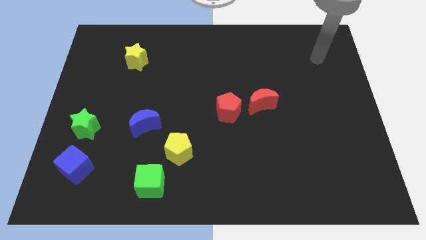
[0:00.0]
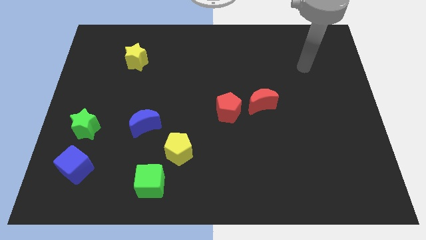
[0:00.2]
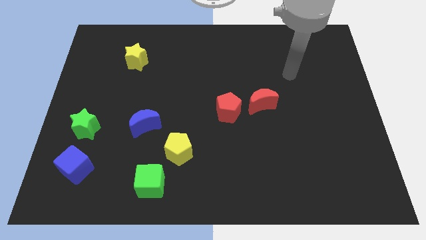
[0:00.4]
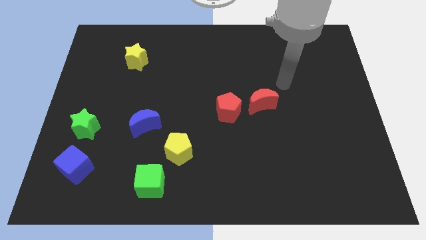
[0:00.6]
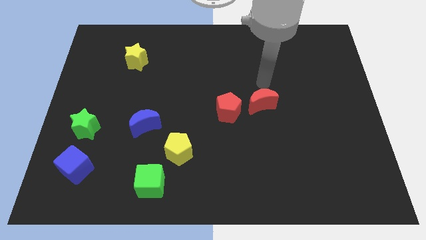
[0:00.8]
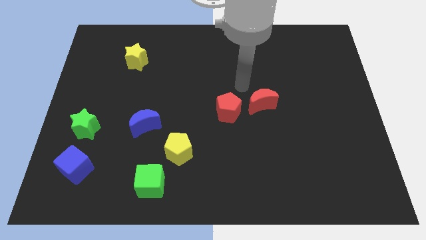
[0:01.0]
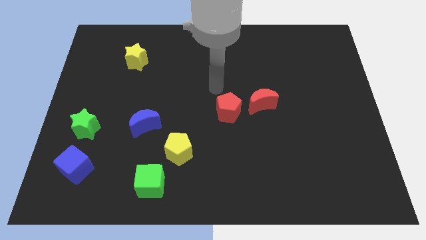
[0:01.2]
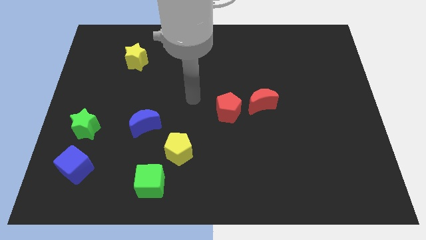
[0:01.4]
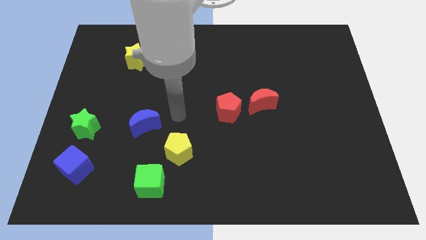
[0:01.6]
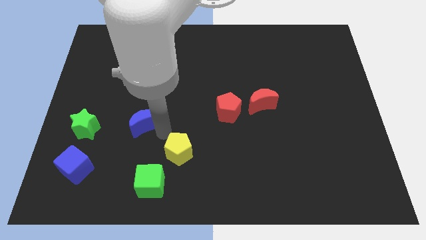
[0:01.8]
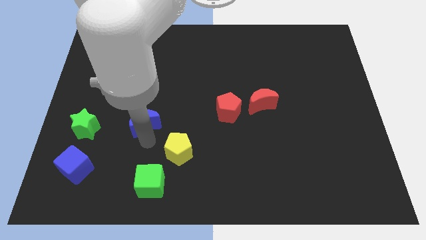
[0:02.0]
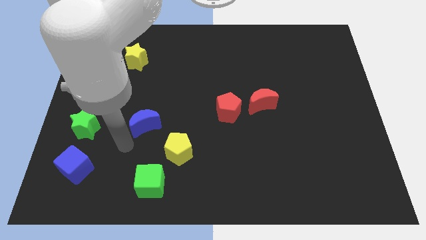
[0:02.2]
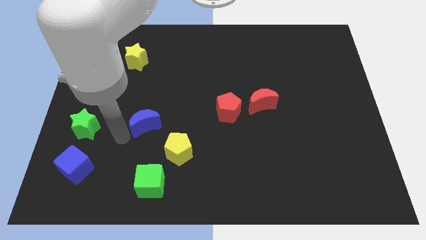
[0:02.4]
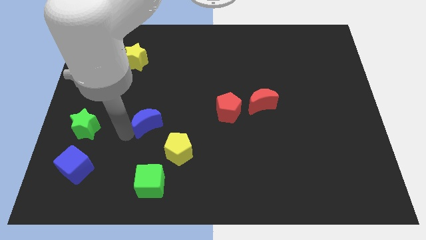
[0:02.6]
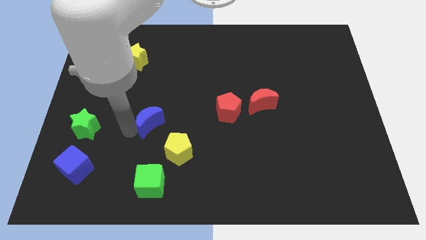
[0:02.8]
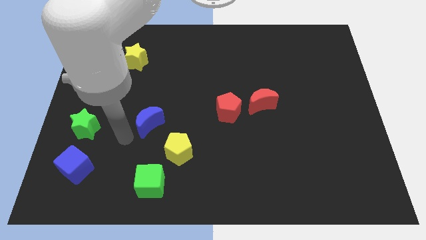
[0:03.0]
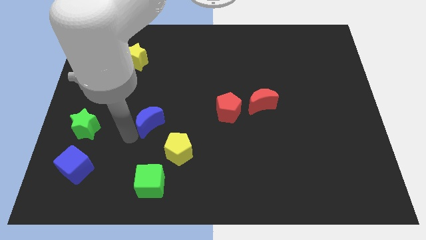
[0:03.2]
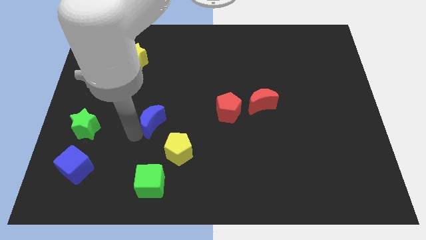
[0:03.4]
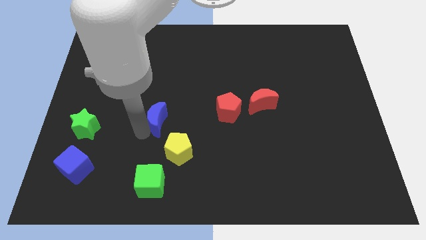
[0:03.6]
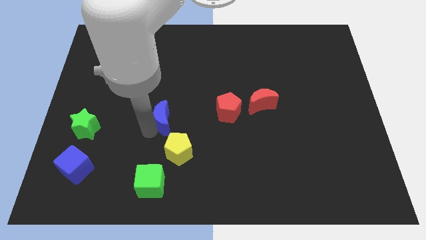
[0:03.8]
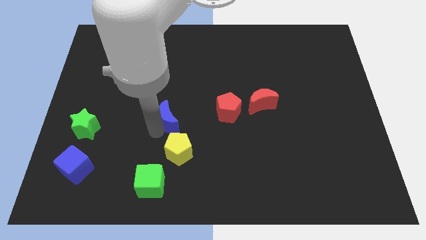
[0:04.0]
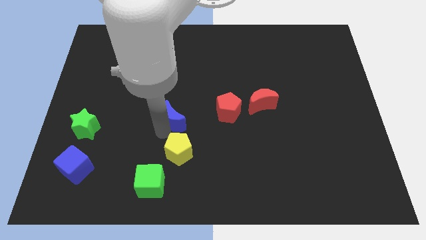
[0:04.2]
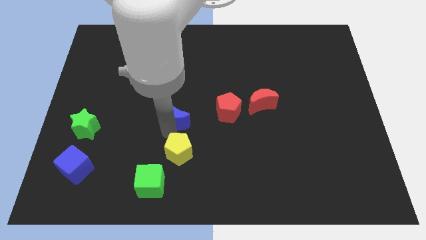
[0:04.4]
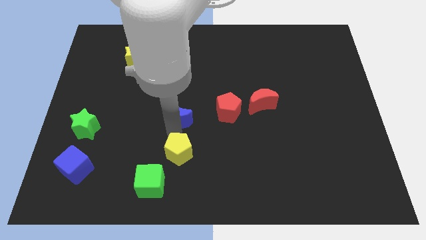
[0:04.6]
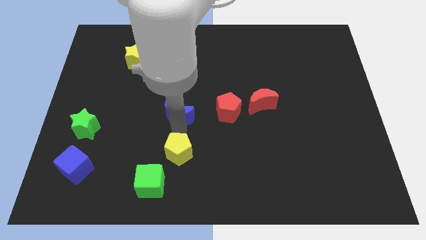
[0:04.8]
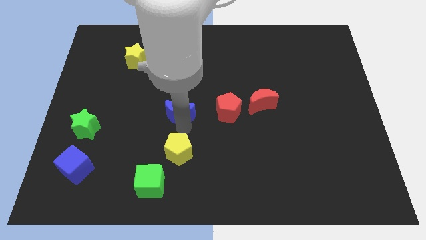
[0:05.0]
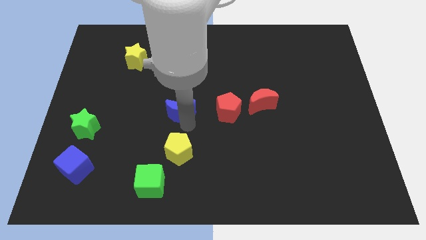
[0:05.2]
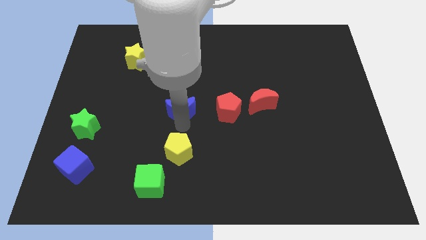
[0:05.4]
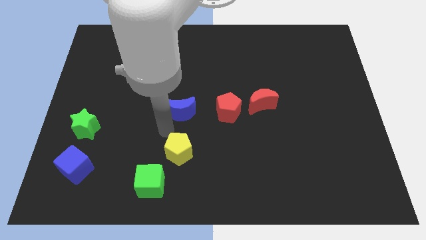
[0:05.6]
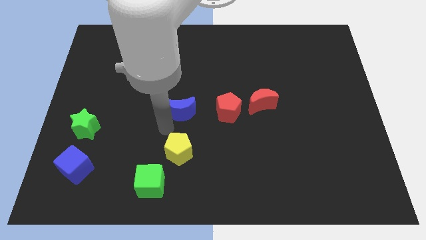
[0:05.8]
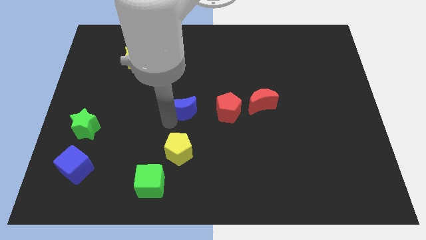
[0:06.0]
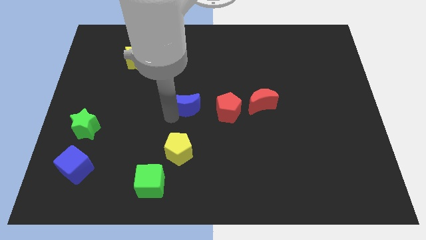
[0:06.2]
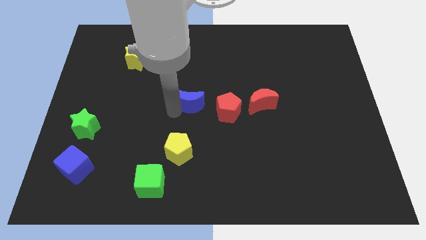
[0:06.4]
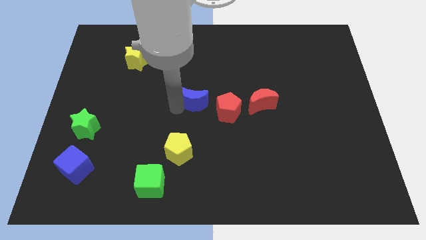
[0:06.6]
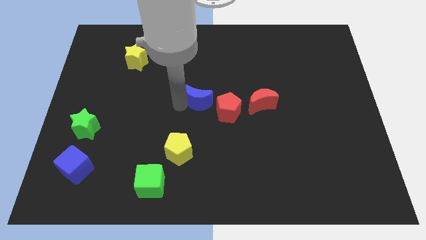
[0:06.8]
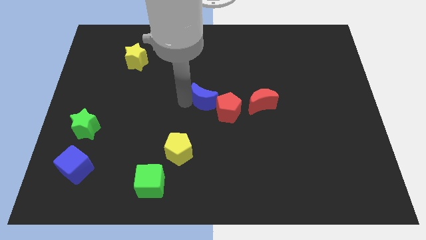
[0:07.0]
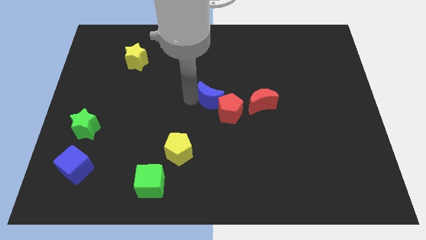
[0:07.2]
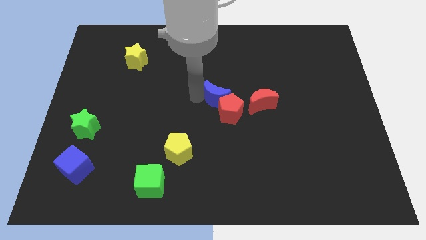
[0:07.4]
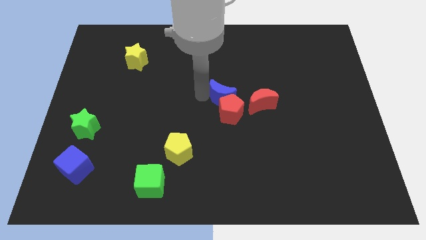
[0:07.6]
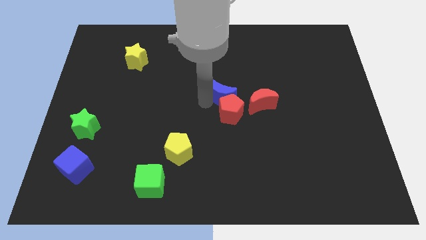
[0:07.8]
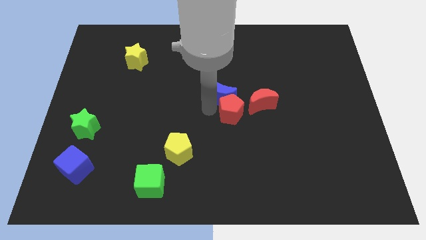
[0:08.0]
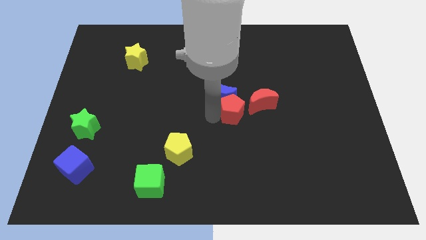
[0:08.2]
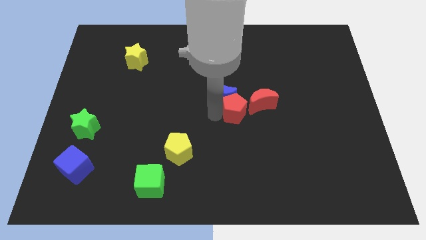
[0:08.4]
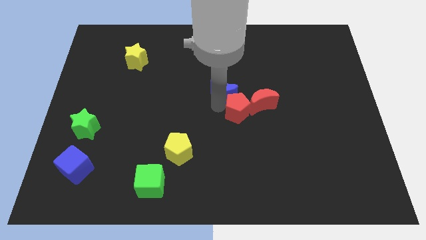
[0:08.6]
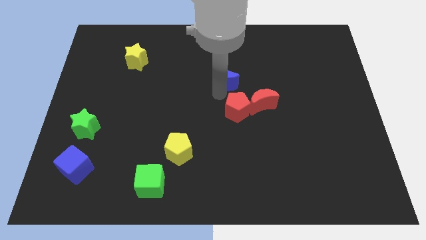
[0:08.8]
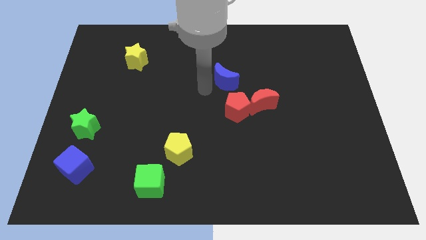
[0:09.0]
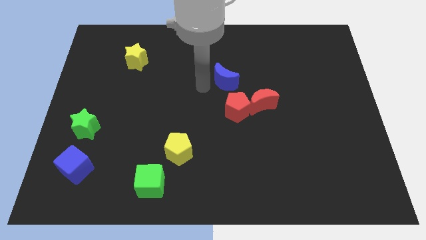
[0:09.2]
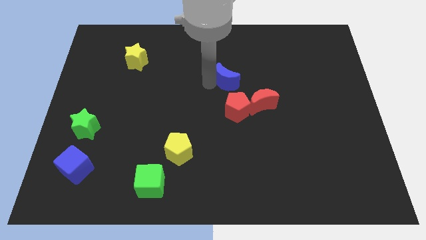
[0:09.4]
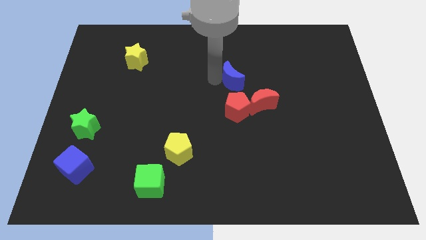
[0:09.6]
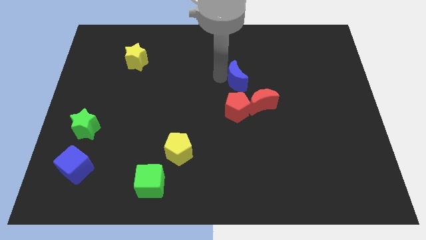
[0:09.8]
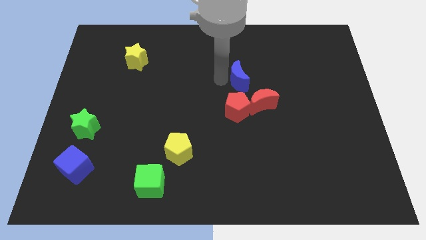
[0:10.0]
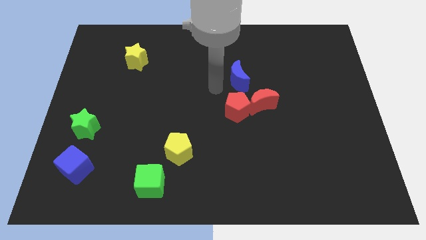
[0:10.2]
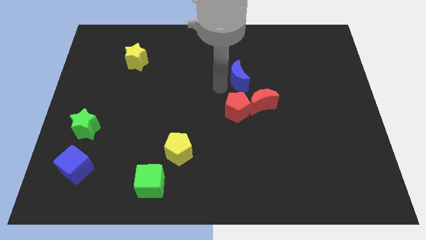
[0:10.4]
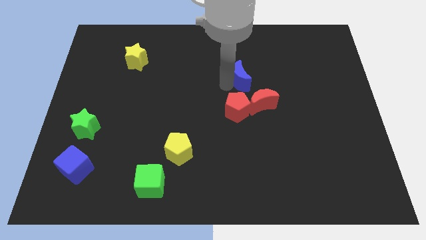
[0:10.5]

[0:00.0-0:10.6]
put the blue moon above the red moon

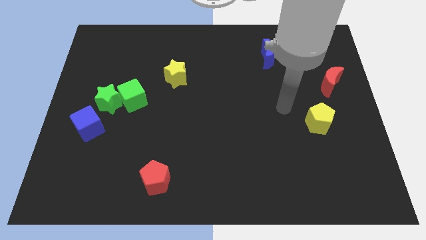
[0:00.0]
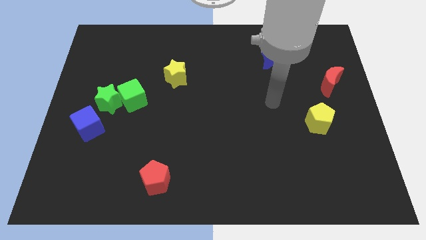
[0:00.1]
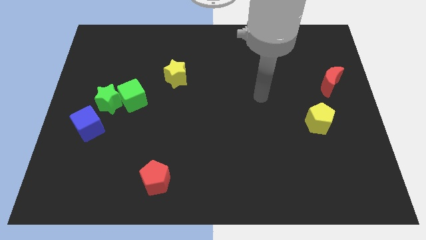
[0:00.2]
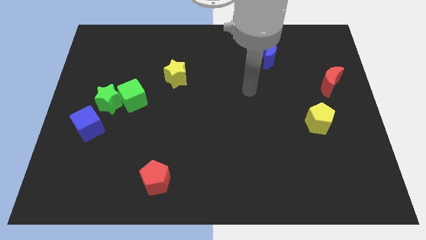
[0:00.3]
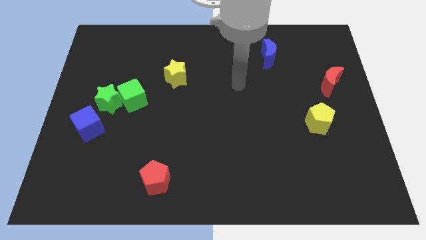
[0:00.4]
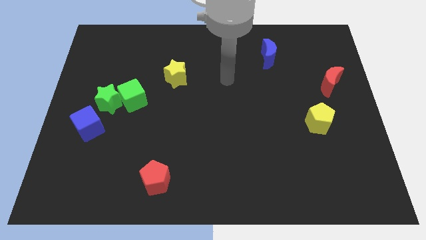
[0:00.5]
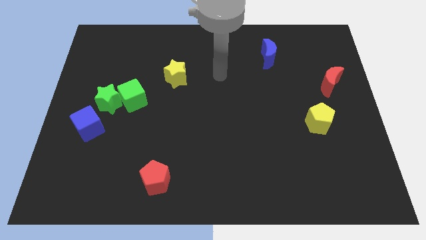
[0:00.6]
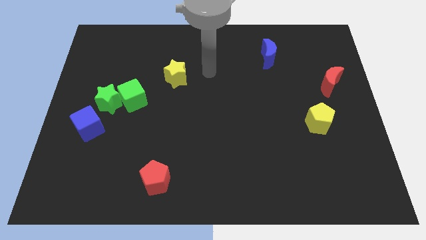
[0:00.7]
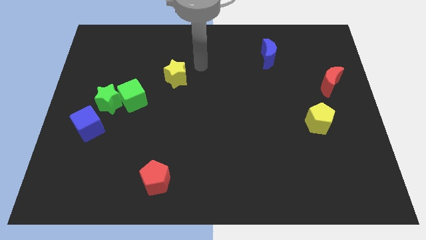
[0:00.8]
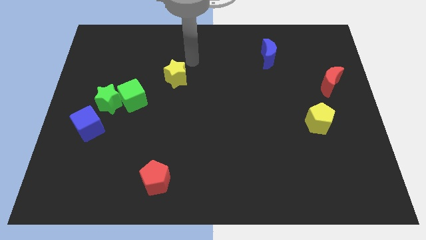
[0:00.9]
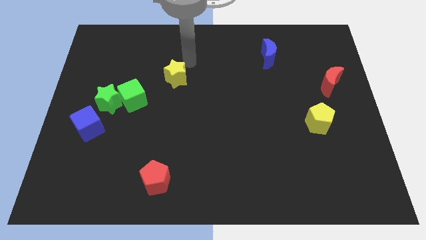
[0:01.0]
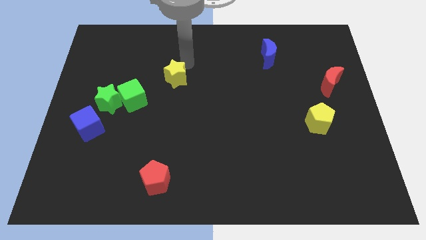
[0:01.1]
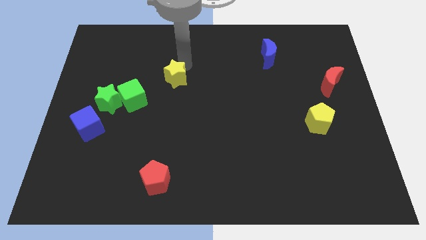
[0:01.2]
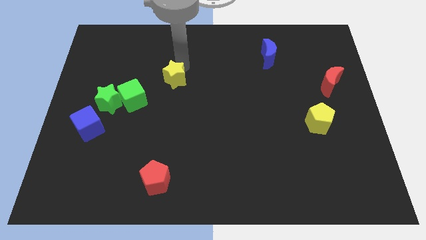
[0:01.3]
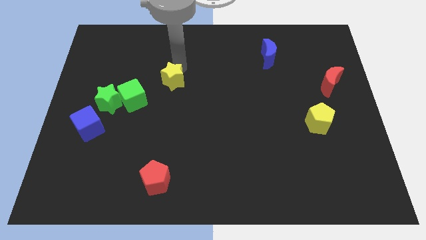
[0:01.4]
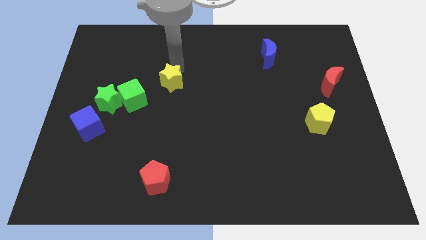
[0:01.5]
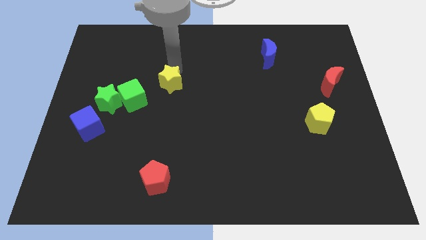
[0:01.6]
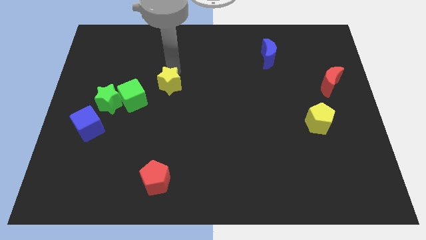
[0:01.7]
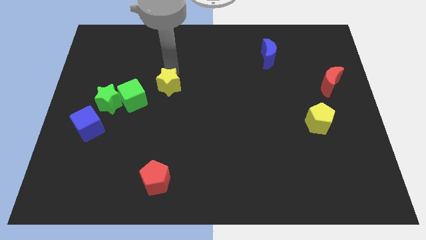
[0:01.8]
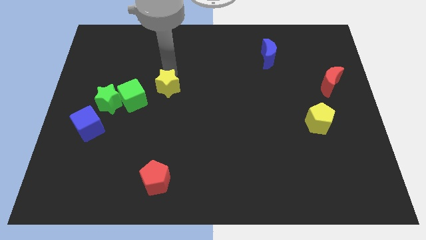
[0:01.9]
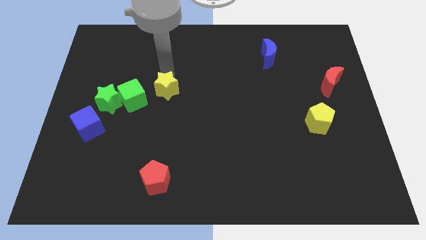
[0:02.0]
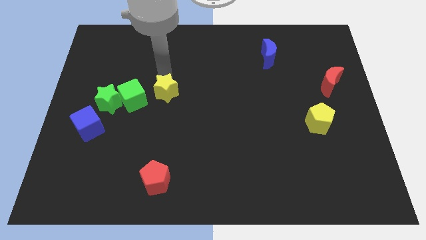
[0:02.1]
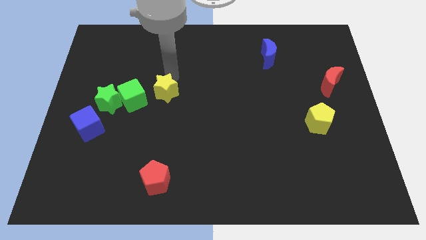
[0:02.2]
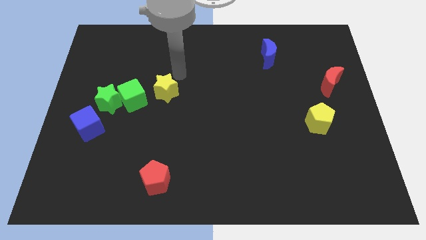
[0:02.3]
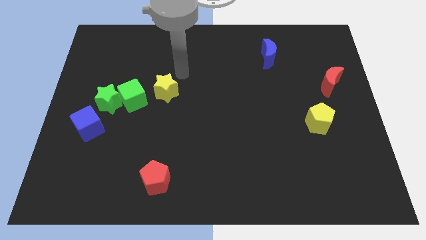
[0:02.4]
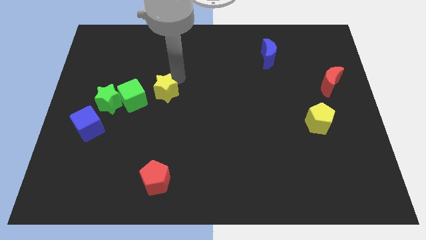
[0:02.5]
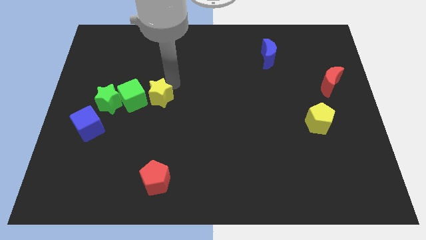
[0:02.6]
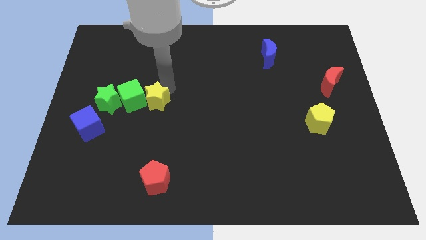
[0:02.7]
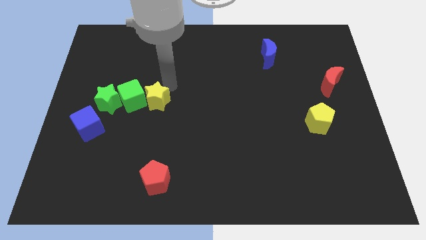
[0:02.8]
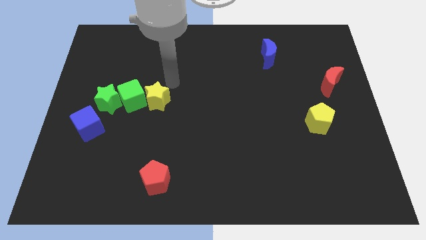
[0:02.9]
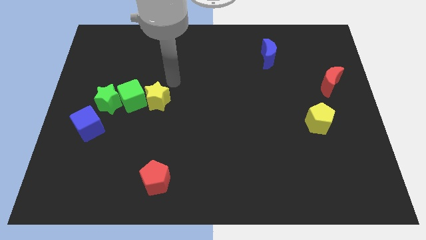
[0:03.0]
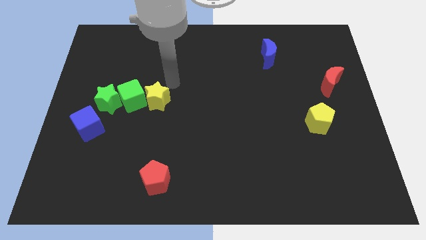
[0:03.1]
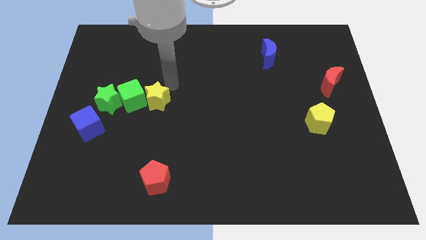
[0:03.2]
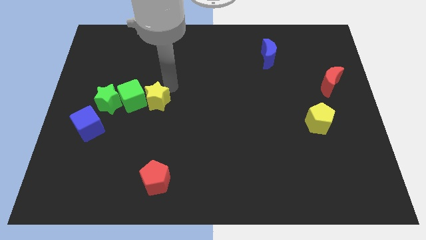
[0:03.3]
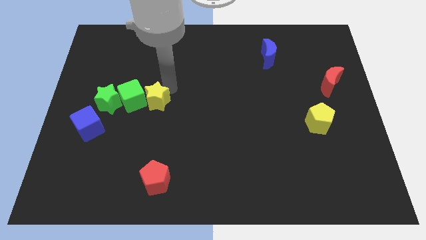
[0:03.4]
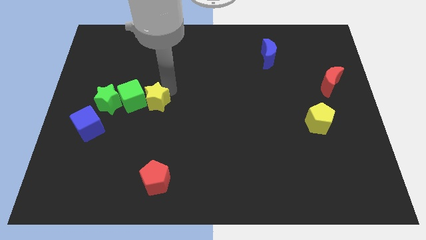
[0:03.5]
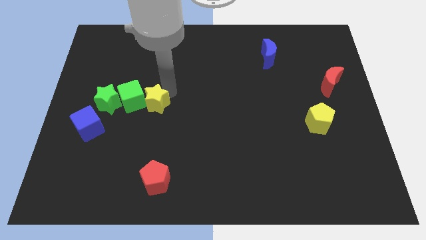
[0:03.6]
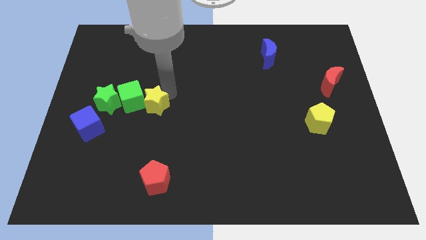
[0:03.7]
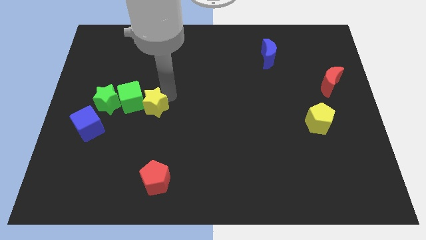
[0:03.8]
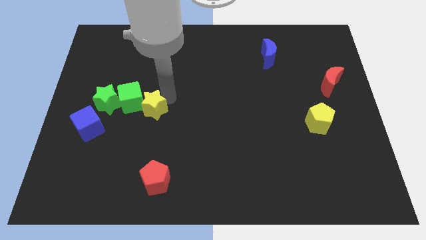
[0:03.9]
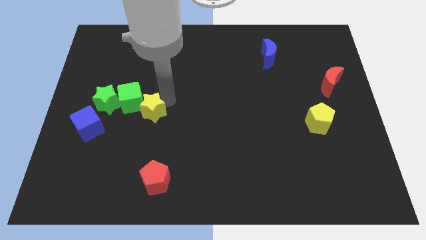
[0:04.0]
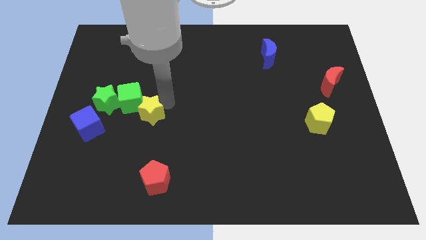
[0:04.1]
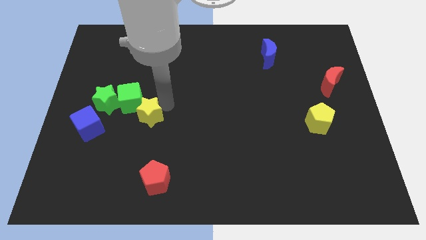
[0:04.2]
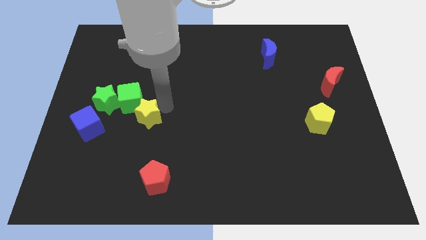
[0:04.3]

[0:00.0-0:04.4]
put the yellow star to the bottom side of the green cube
